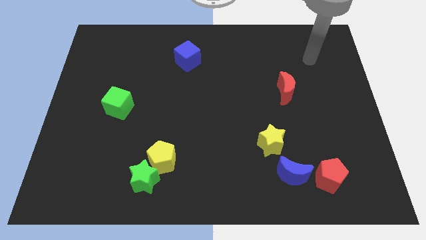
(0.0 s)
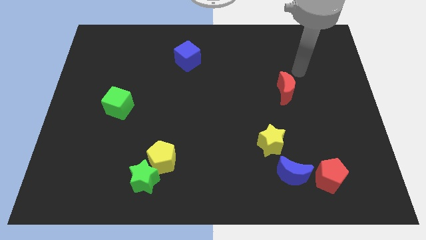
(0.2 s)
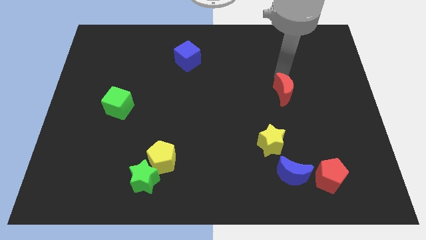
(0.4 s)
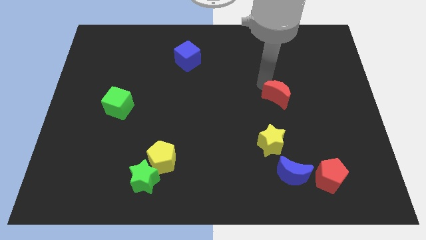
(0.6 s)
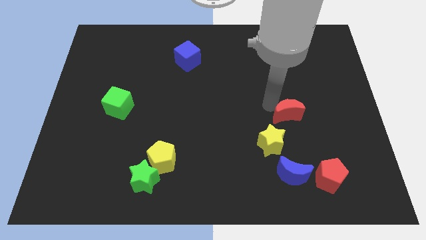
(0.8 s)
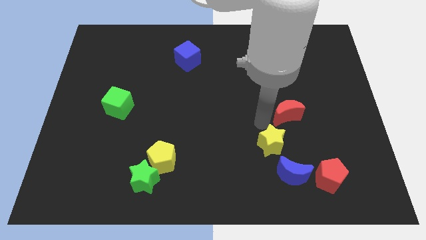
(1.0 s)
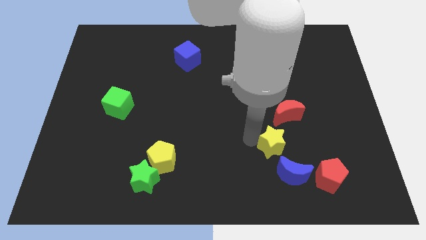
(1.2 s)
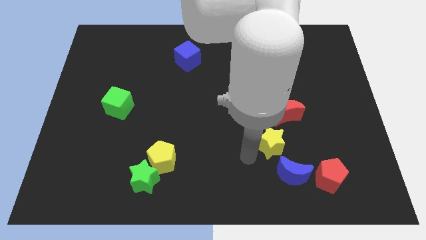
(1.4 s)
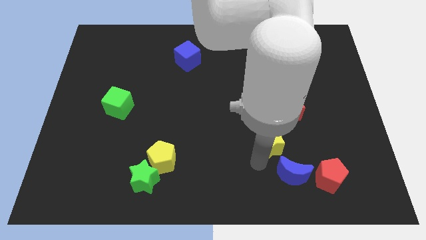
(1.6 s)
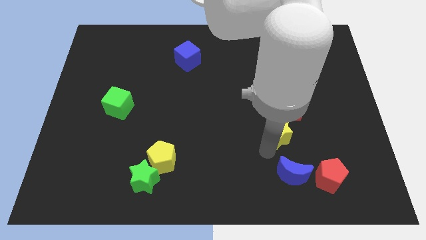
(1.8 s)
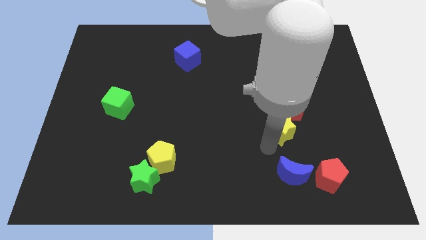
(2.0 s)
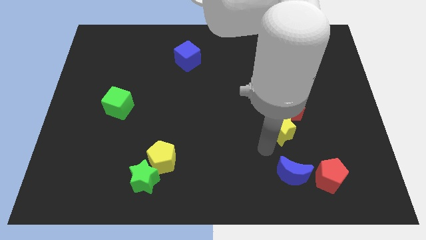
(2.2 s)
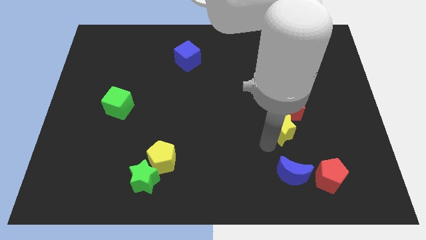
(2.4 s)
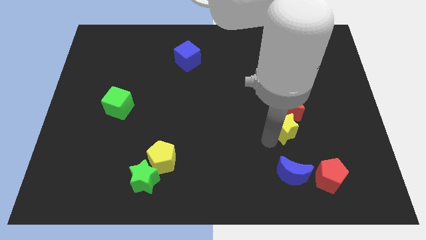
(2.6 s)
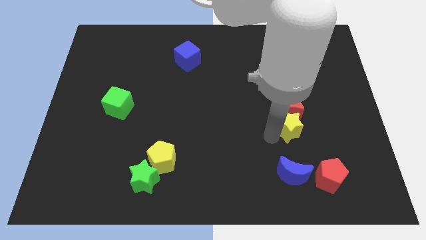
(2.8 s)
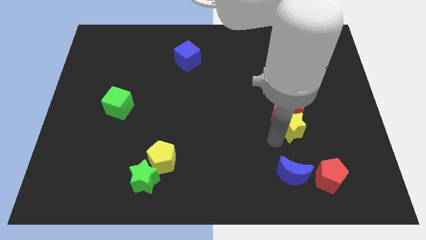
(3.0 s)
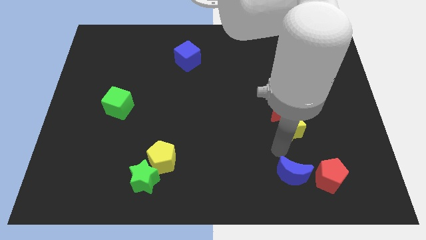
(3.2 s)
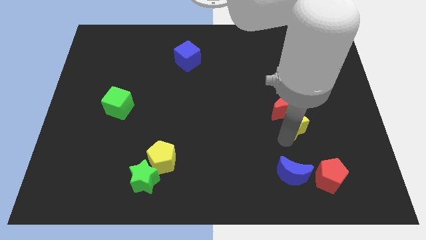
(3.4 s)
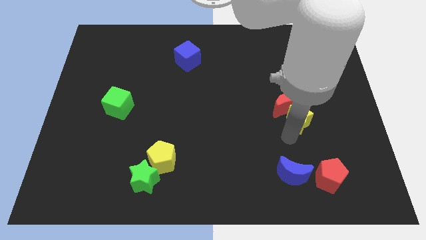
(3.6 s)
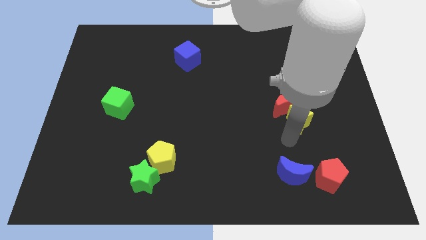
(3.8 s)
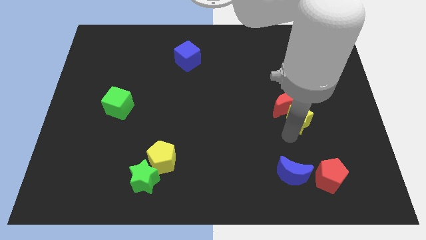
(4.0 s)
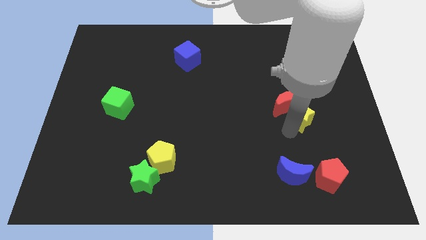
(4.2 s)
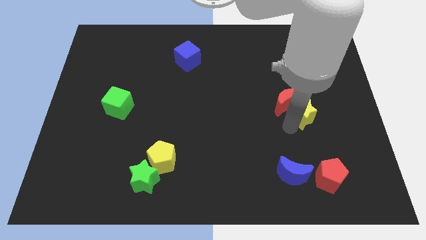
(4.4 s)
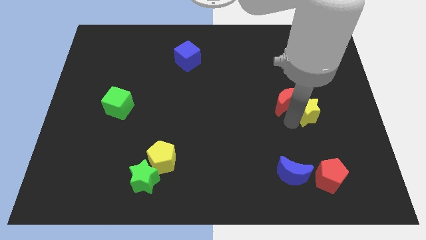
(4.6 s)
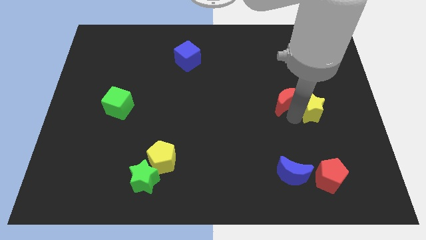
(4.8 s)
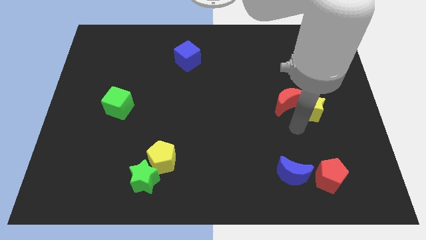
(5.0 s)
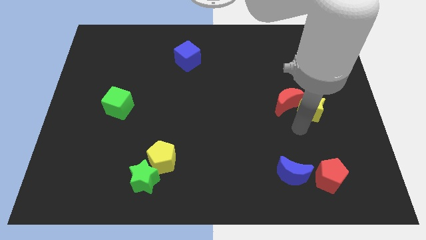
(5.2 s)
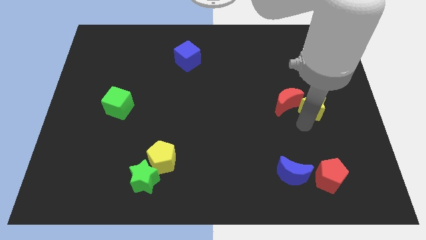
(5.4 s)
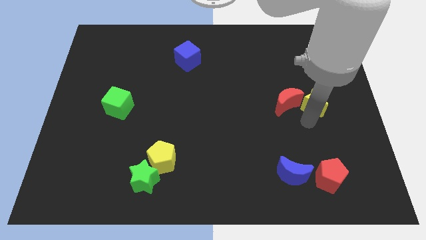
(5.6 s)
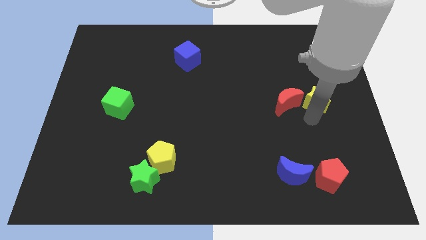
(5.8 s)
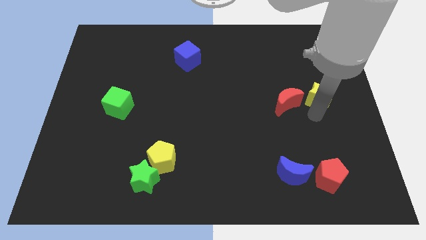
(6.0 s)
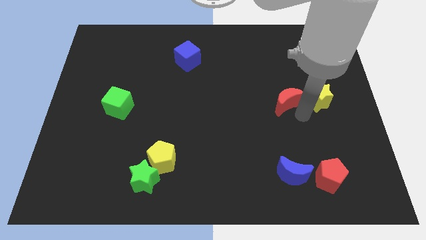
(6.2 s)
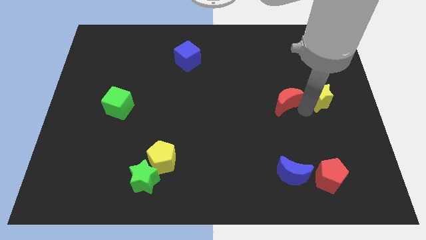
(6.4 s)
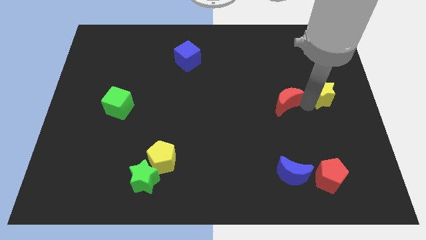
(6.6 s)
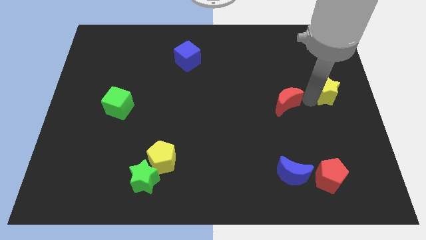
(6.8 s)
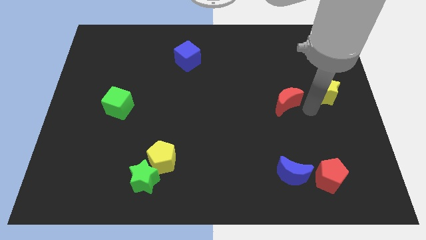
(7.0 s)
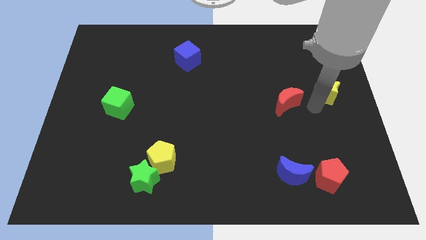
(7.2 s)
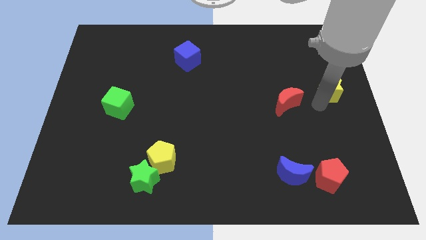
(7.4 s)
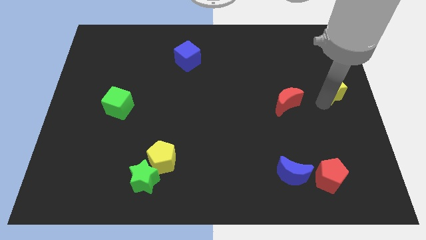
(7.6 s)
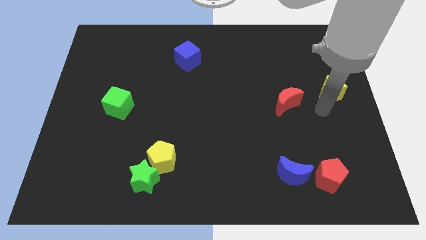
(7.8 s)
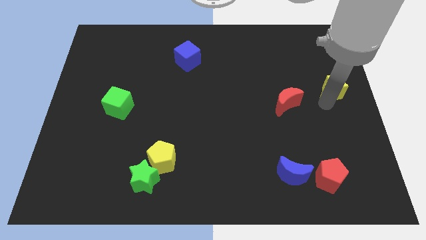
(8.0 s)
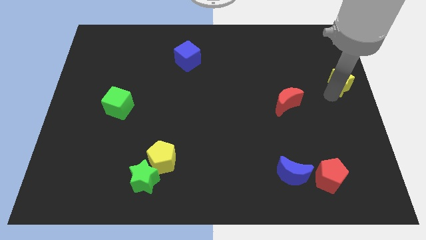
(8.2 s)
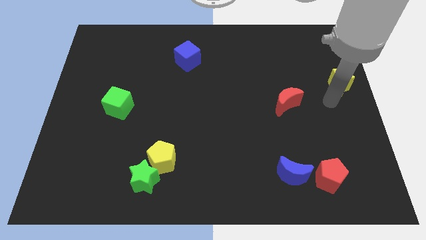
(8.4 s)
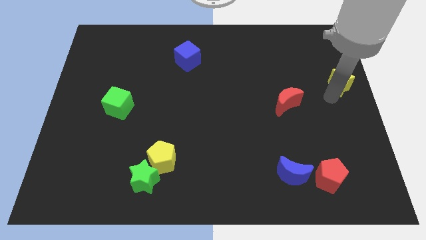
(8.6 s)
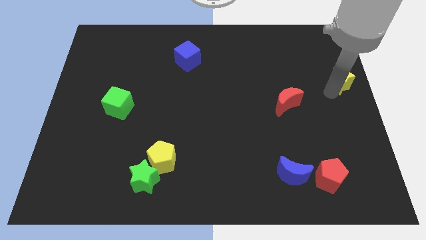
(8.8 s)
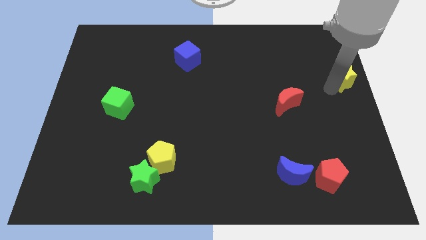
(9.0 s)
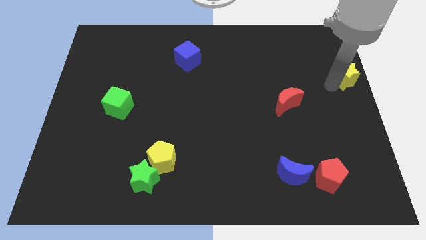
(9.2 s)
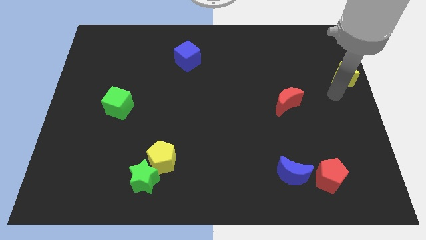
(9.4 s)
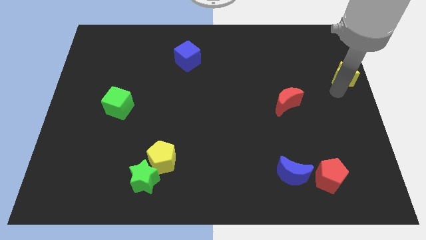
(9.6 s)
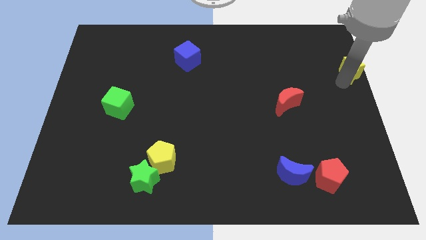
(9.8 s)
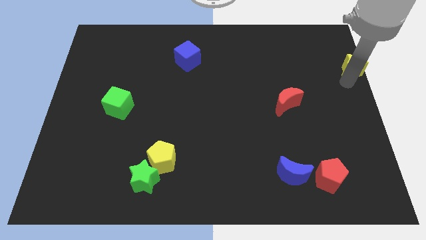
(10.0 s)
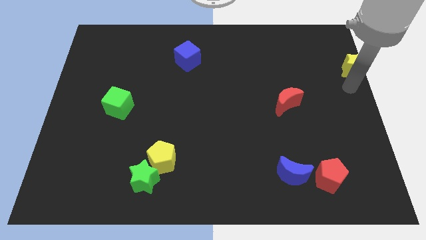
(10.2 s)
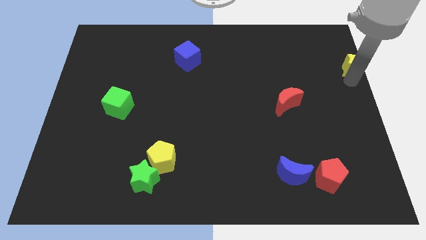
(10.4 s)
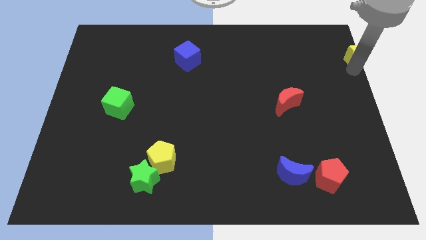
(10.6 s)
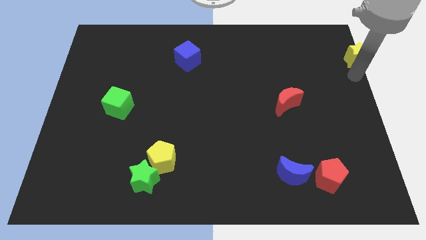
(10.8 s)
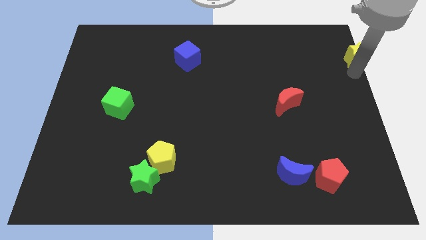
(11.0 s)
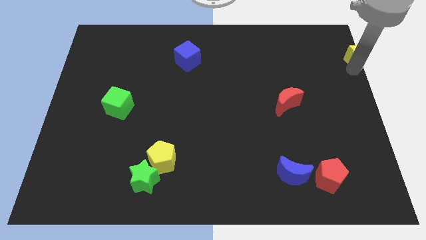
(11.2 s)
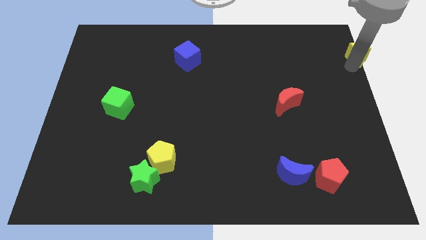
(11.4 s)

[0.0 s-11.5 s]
slide the yellow star to the top right

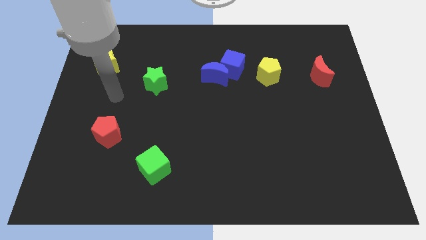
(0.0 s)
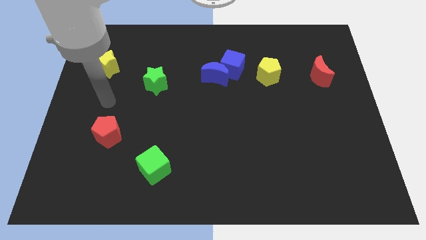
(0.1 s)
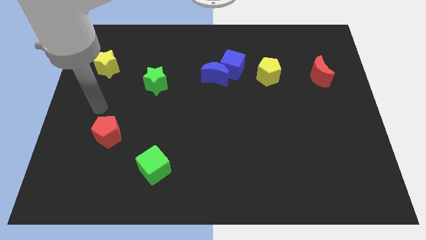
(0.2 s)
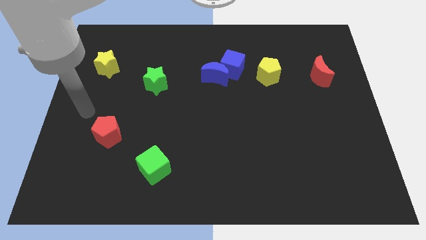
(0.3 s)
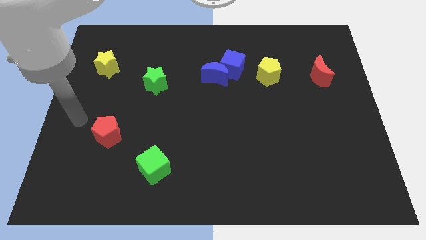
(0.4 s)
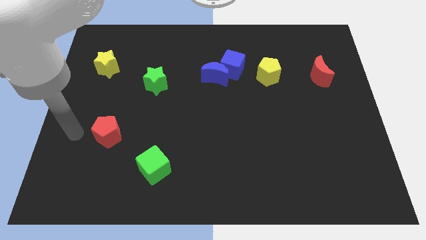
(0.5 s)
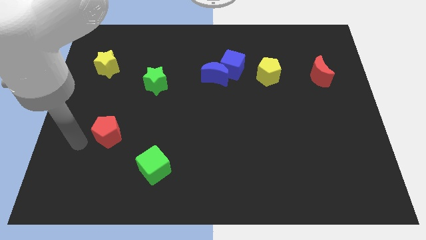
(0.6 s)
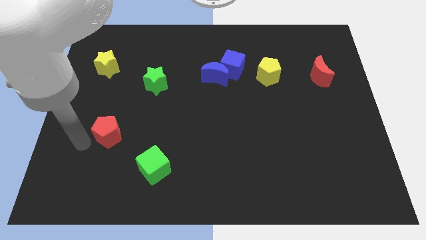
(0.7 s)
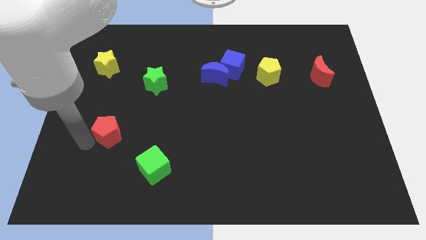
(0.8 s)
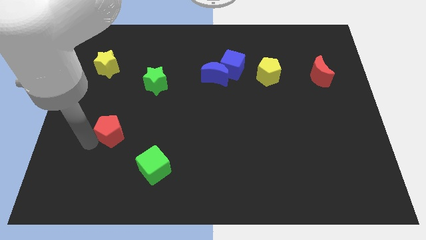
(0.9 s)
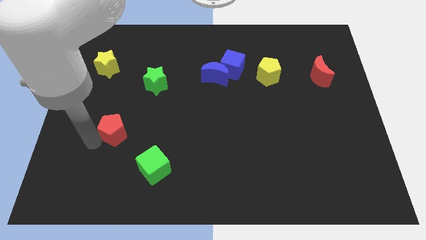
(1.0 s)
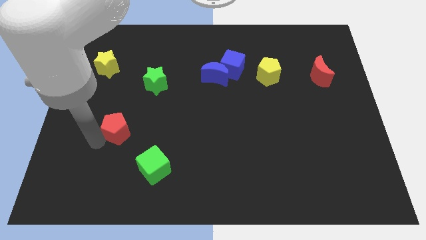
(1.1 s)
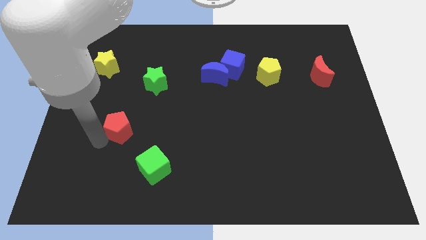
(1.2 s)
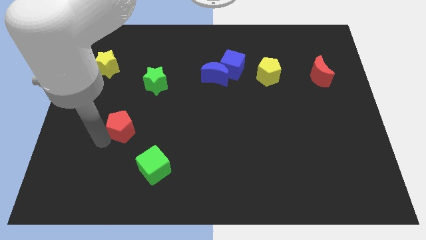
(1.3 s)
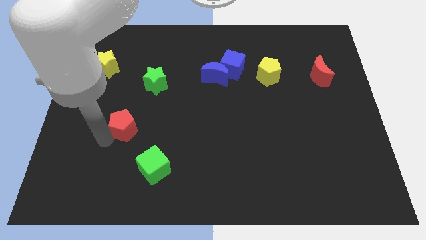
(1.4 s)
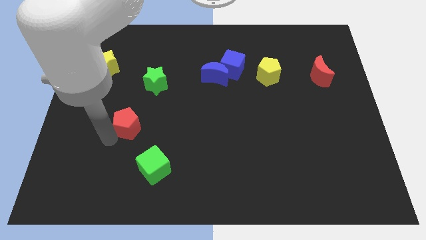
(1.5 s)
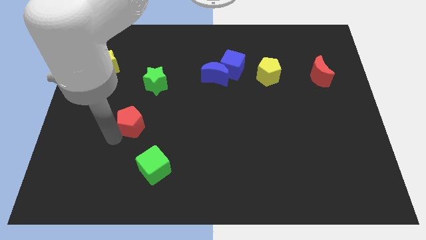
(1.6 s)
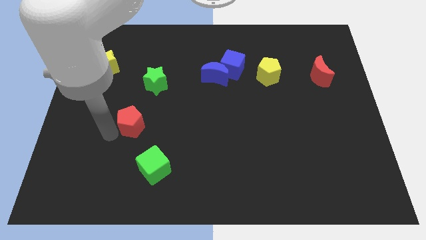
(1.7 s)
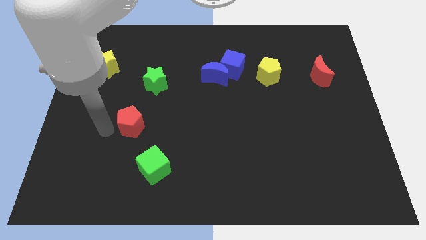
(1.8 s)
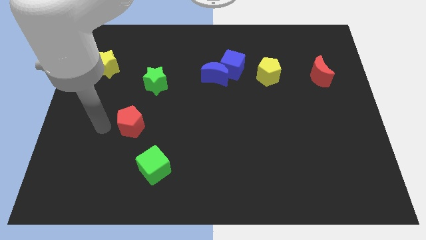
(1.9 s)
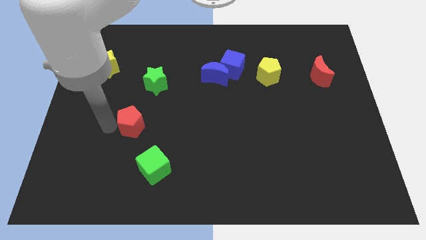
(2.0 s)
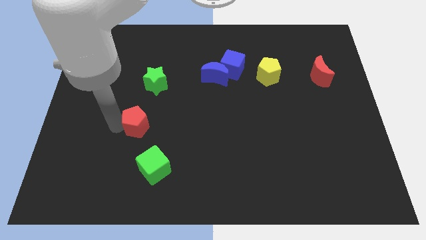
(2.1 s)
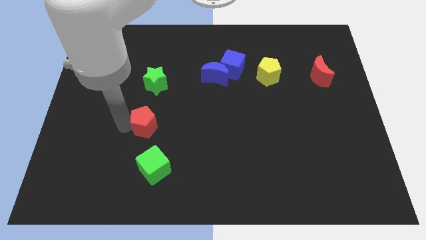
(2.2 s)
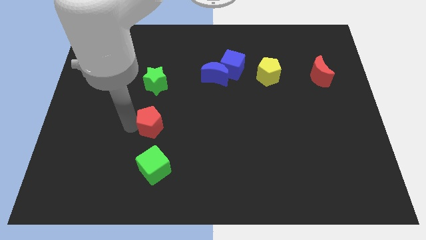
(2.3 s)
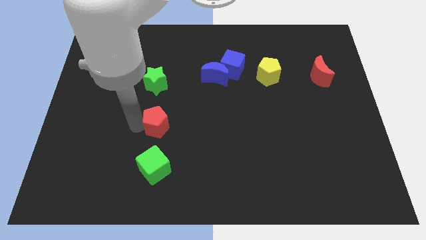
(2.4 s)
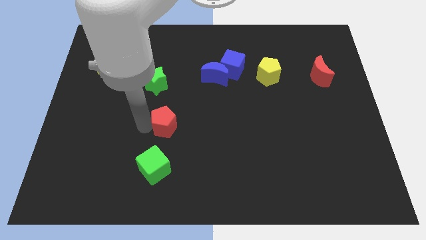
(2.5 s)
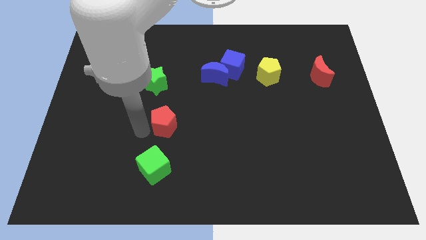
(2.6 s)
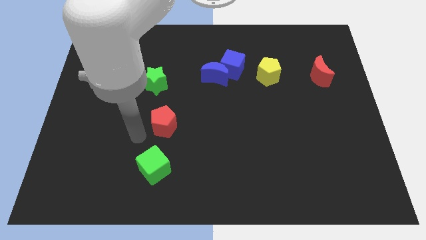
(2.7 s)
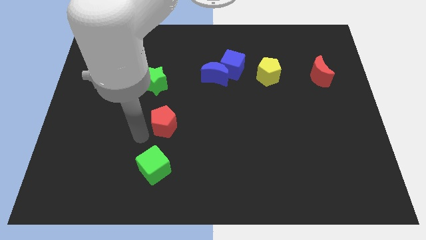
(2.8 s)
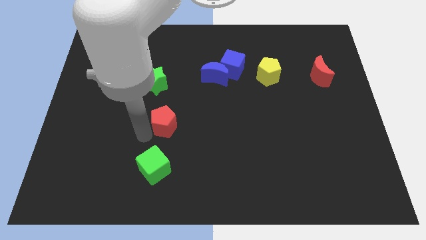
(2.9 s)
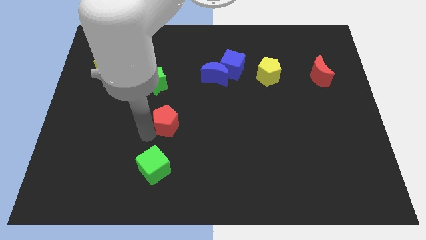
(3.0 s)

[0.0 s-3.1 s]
move the red pentagon to the center of the board
